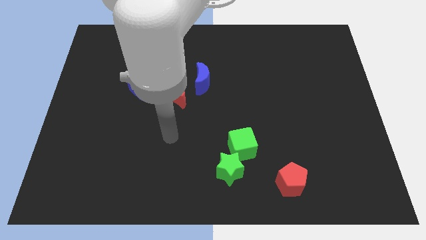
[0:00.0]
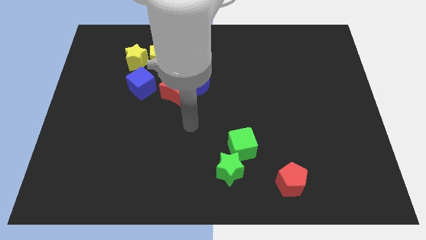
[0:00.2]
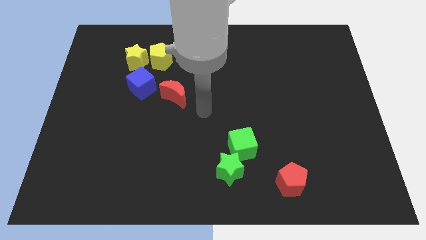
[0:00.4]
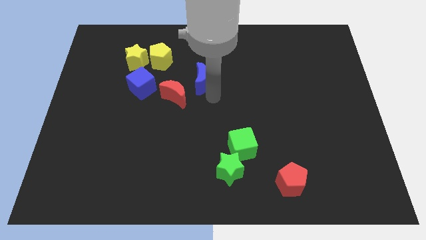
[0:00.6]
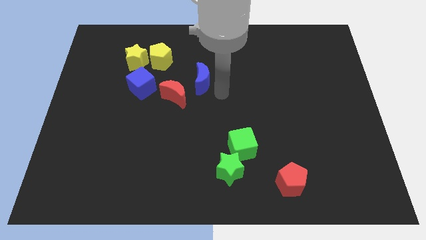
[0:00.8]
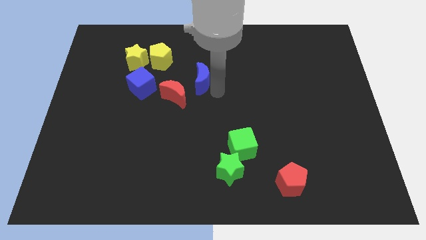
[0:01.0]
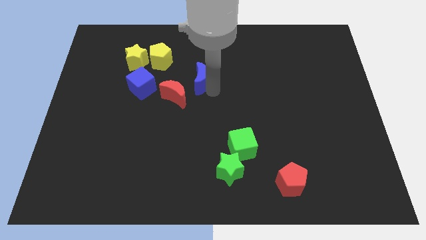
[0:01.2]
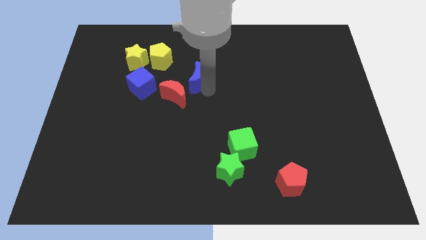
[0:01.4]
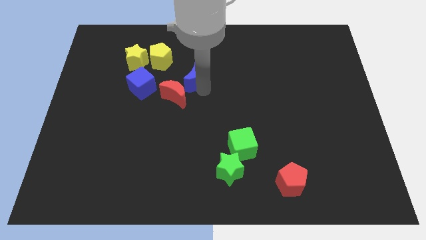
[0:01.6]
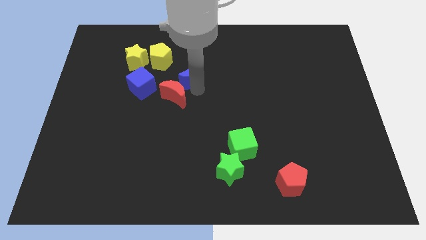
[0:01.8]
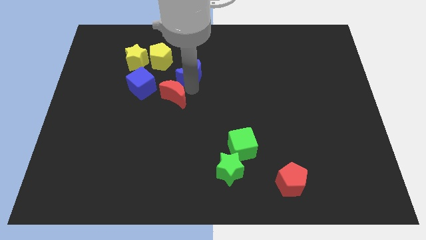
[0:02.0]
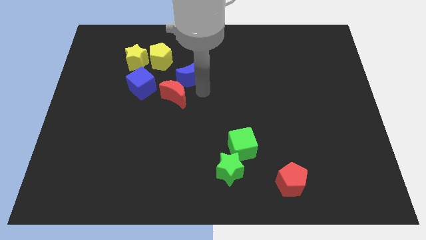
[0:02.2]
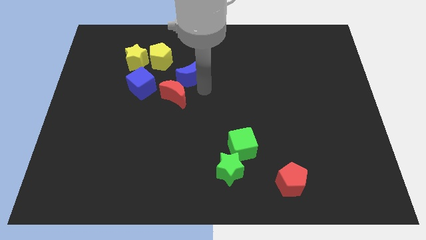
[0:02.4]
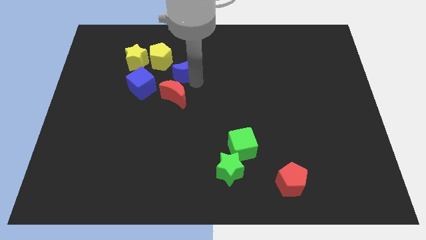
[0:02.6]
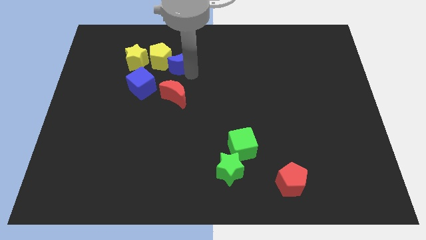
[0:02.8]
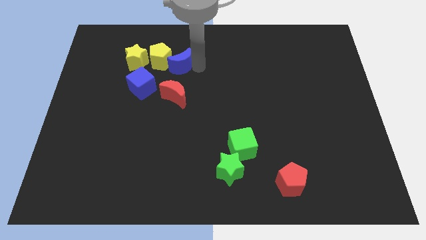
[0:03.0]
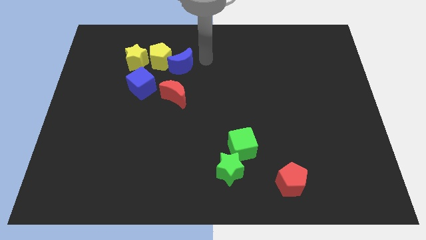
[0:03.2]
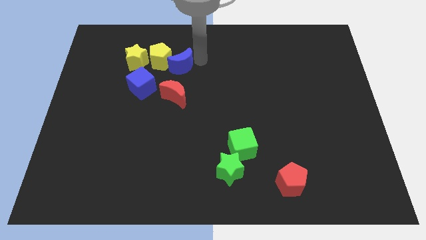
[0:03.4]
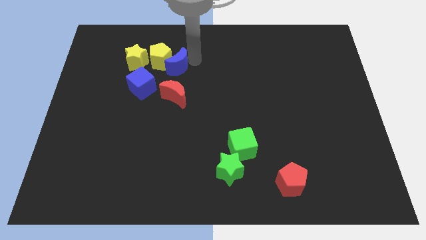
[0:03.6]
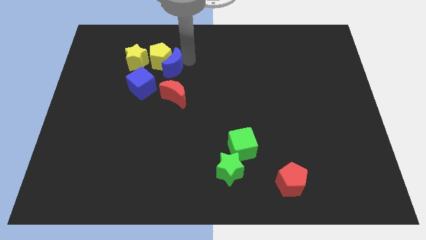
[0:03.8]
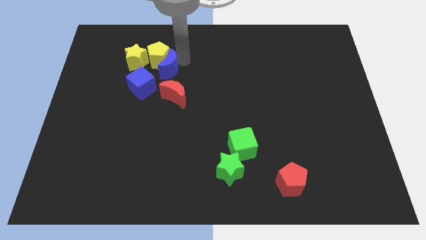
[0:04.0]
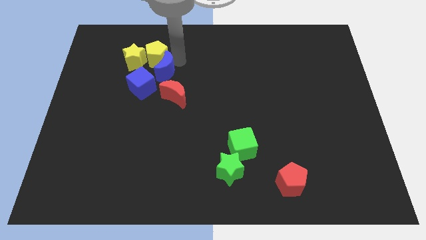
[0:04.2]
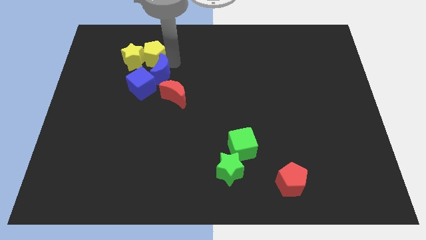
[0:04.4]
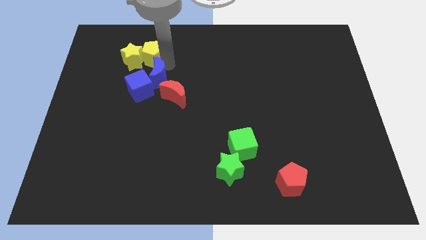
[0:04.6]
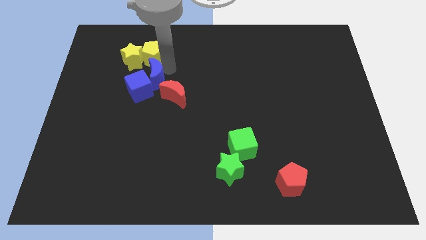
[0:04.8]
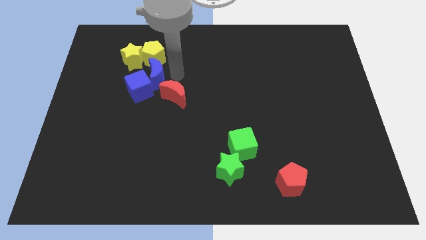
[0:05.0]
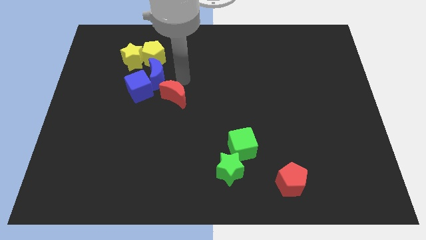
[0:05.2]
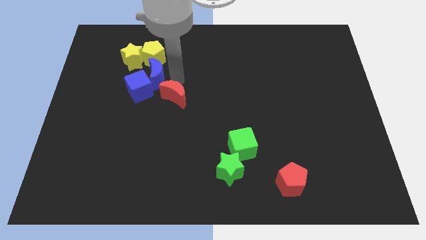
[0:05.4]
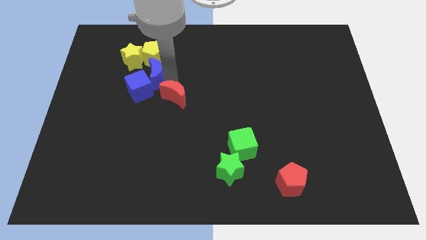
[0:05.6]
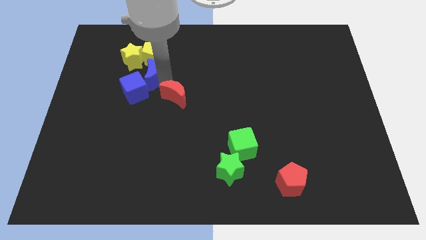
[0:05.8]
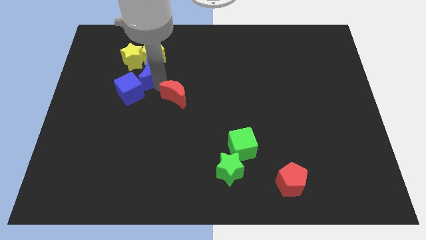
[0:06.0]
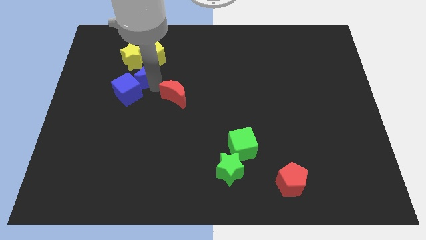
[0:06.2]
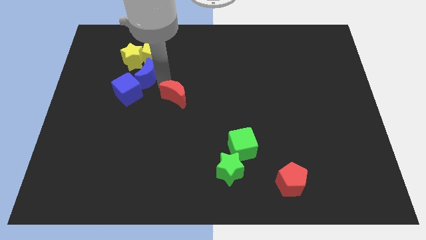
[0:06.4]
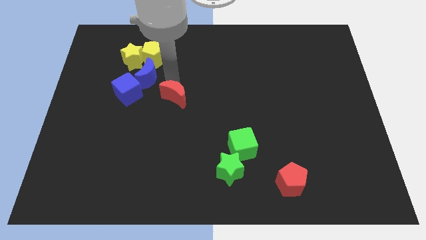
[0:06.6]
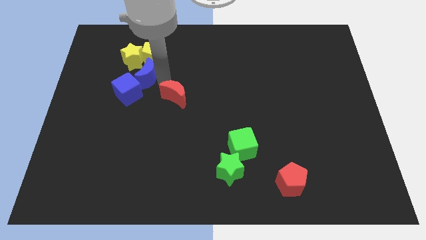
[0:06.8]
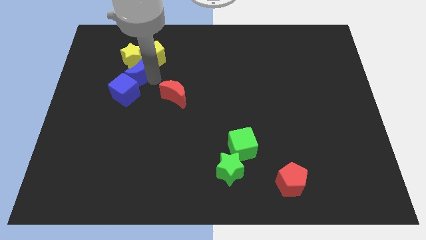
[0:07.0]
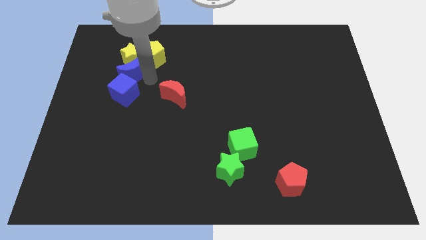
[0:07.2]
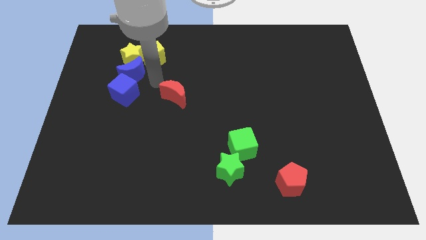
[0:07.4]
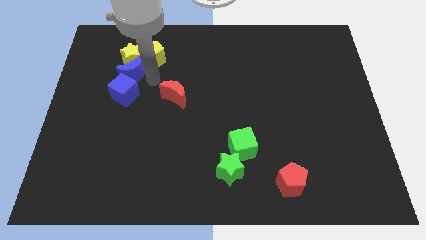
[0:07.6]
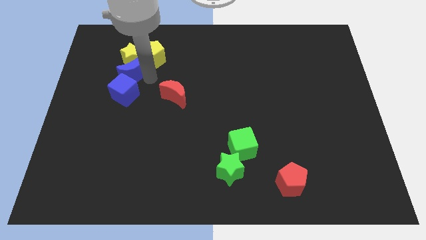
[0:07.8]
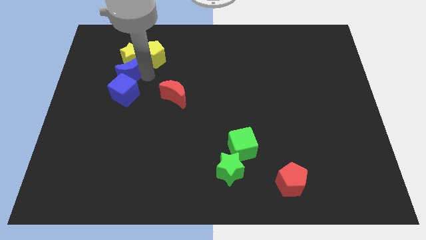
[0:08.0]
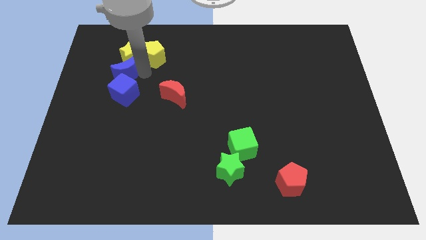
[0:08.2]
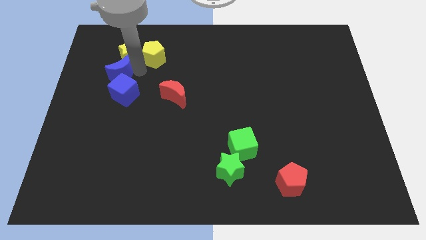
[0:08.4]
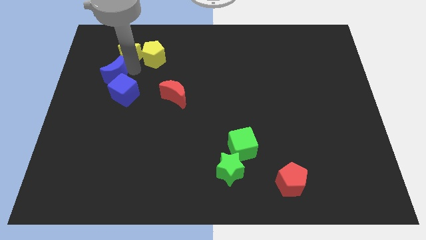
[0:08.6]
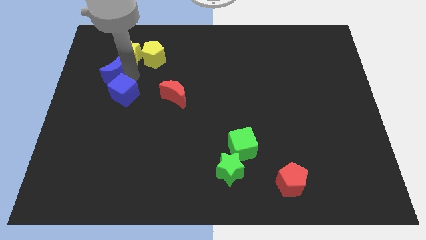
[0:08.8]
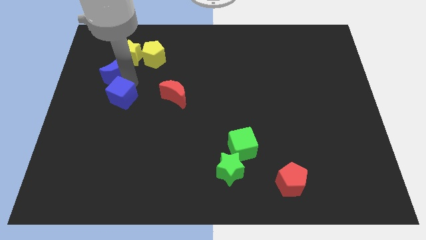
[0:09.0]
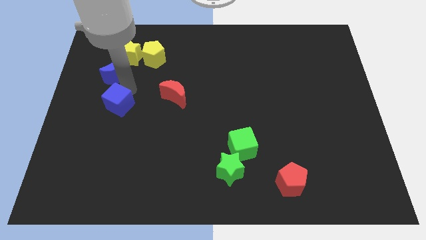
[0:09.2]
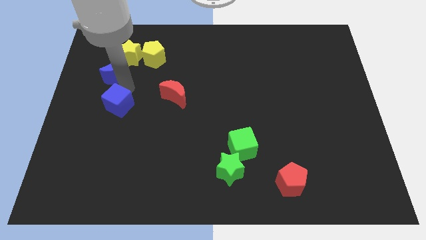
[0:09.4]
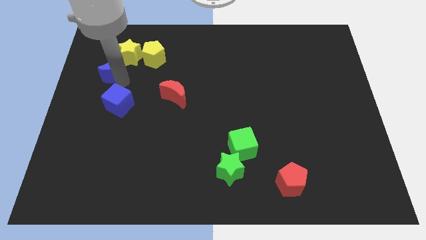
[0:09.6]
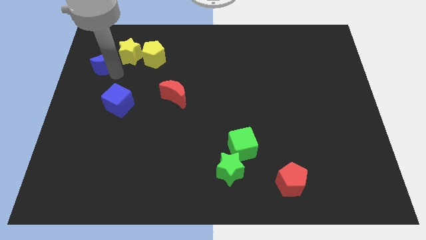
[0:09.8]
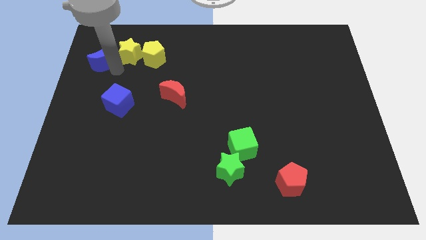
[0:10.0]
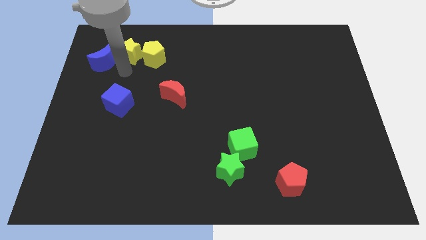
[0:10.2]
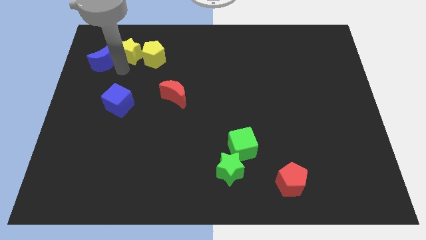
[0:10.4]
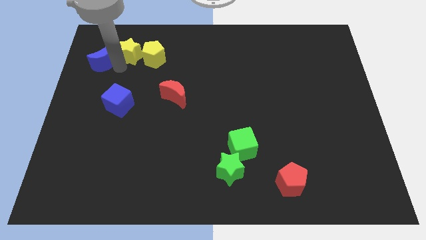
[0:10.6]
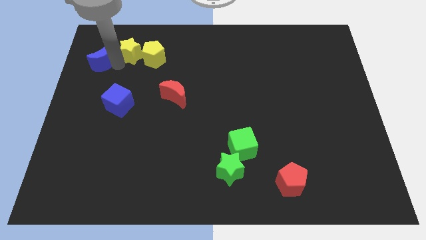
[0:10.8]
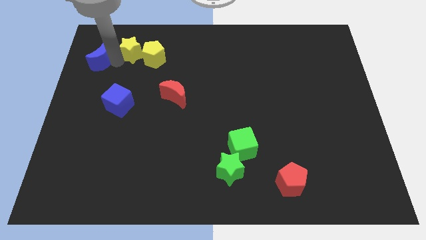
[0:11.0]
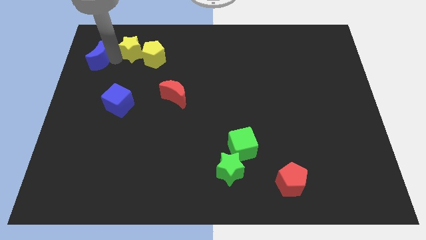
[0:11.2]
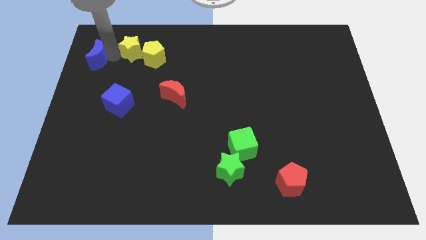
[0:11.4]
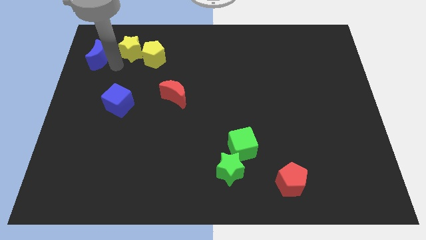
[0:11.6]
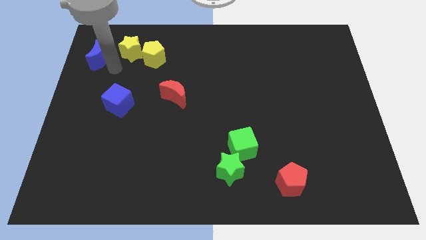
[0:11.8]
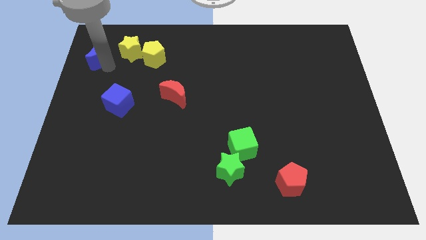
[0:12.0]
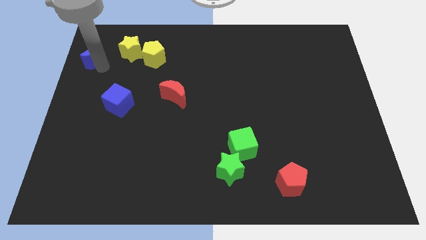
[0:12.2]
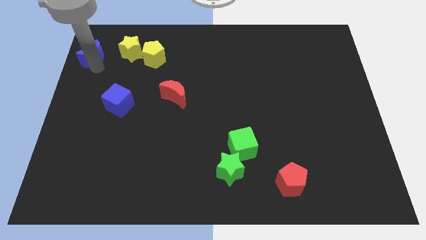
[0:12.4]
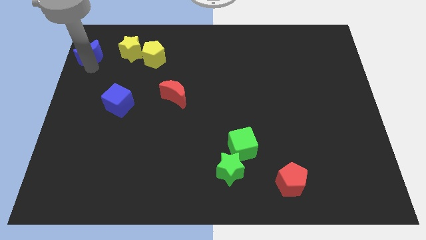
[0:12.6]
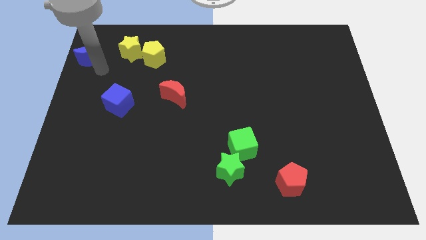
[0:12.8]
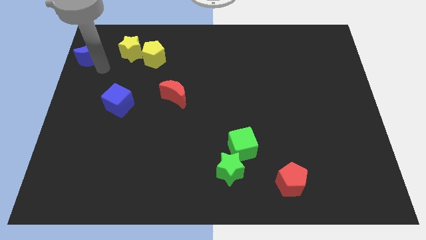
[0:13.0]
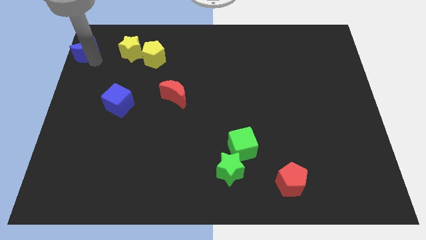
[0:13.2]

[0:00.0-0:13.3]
move the blue moon to the top left corner
